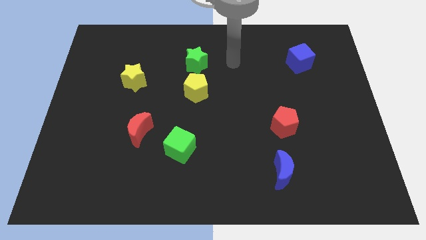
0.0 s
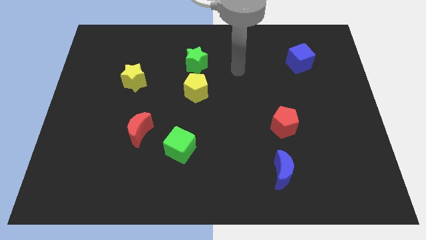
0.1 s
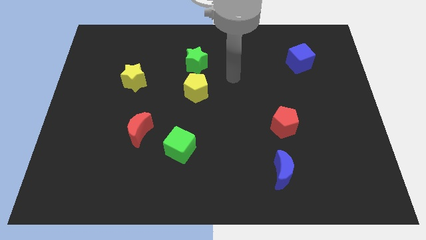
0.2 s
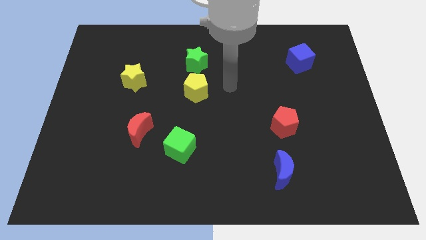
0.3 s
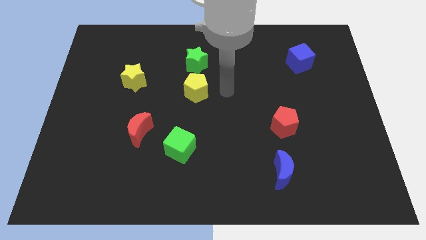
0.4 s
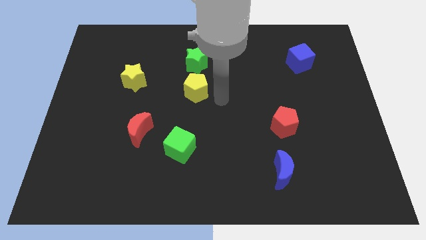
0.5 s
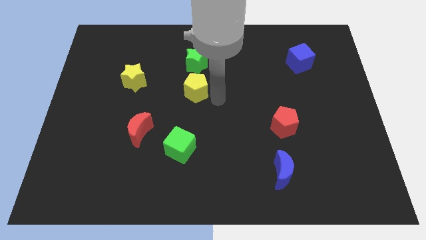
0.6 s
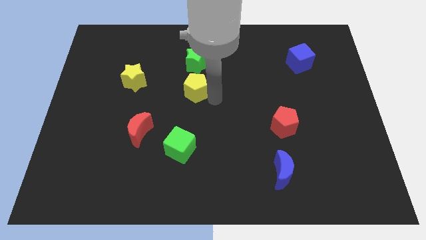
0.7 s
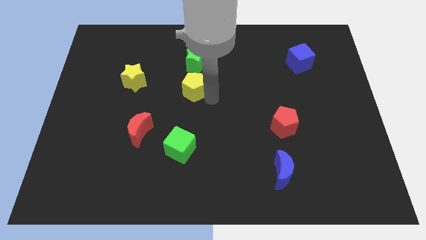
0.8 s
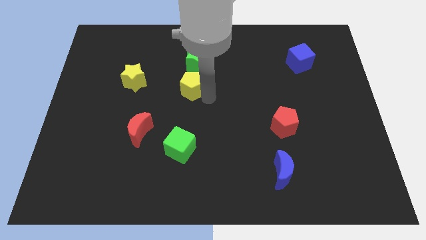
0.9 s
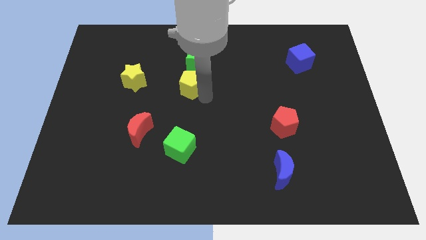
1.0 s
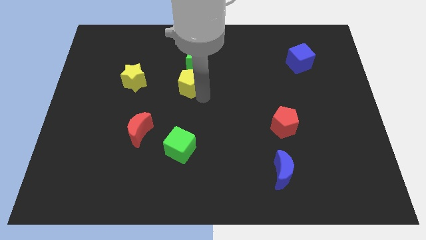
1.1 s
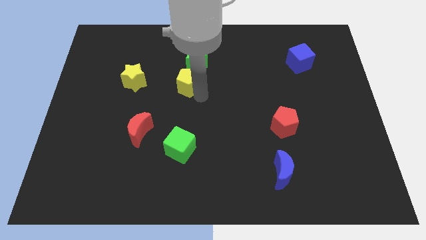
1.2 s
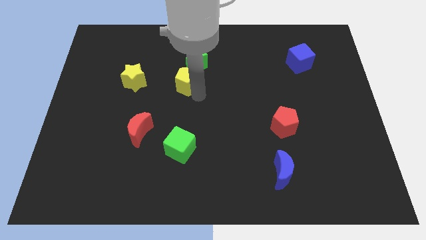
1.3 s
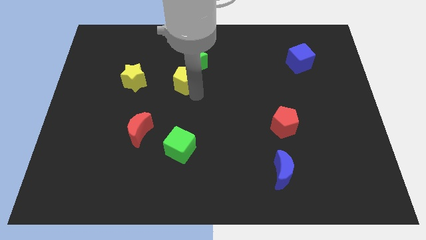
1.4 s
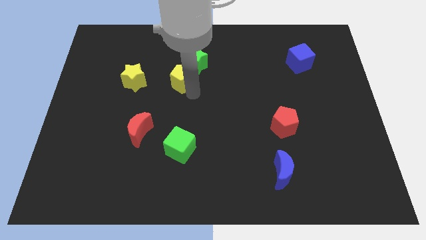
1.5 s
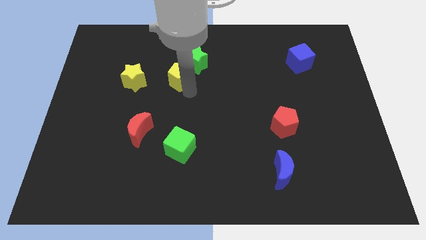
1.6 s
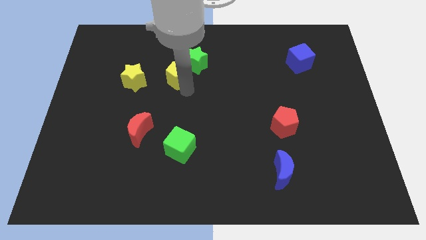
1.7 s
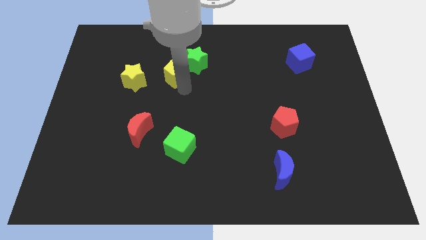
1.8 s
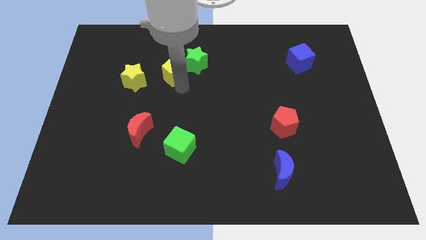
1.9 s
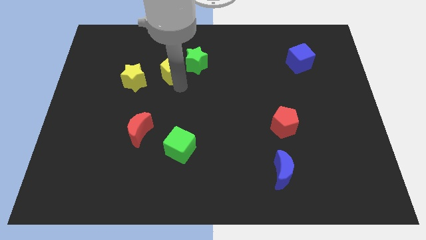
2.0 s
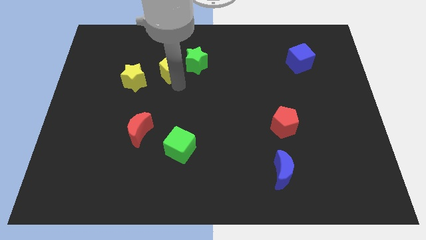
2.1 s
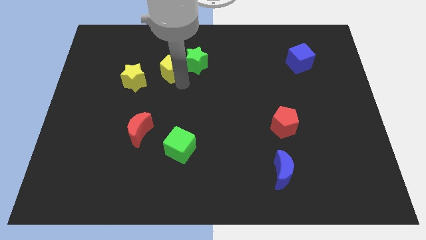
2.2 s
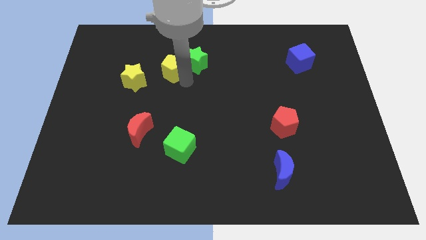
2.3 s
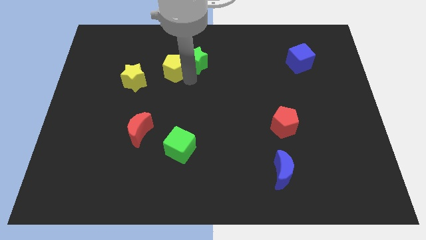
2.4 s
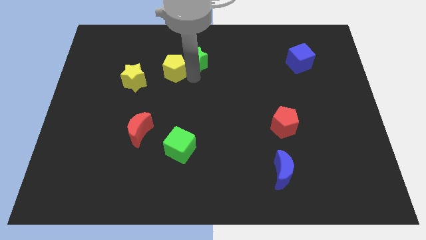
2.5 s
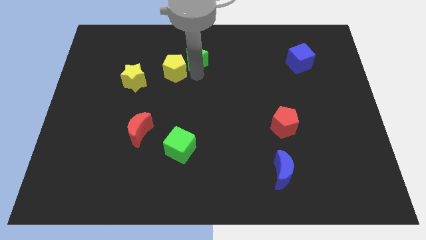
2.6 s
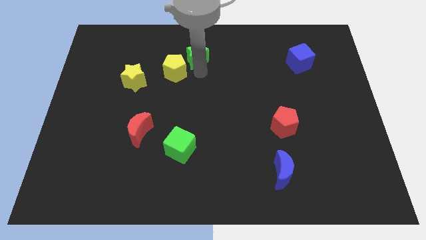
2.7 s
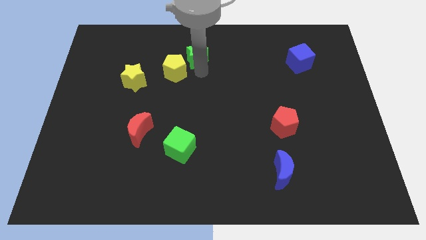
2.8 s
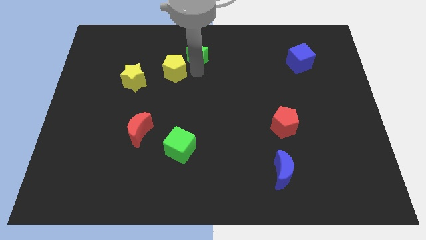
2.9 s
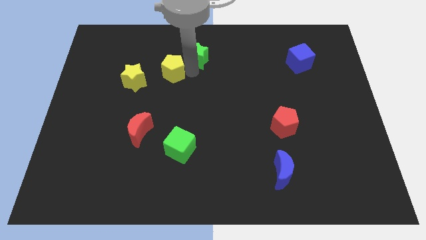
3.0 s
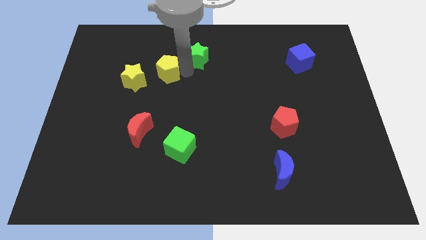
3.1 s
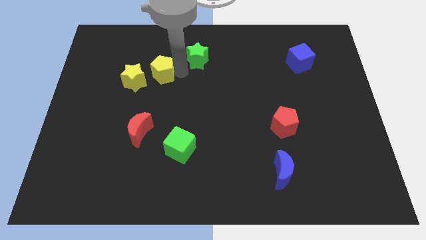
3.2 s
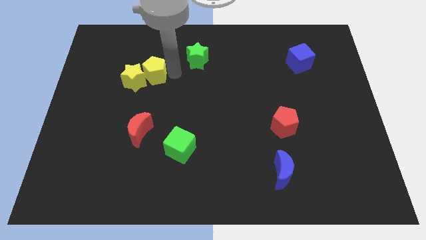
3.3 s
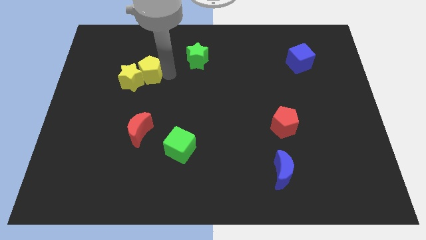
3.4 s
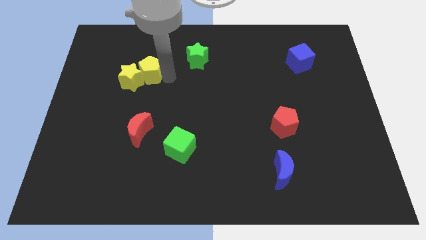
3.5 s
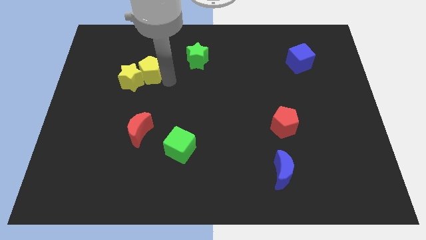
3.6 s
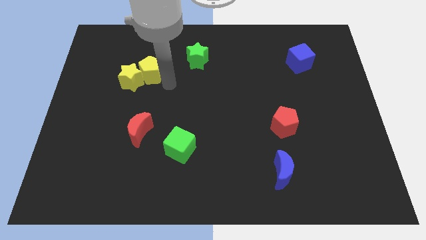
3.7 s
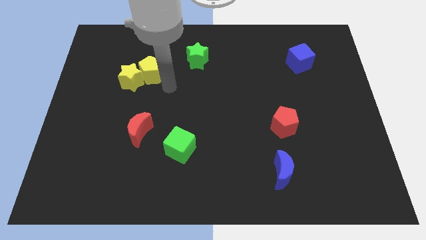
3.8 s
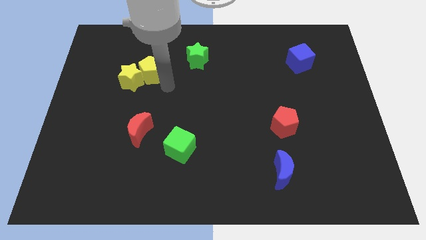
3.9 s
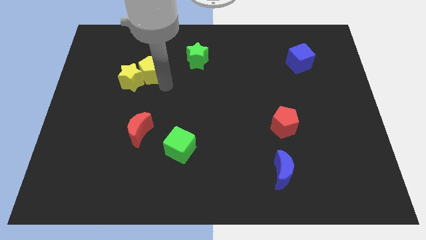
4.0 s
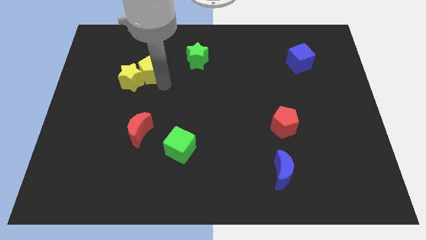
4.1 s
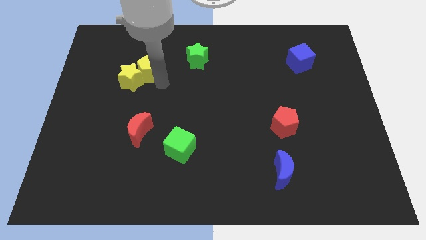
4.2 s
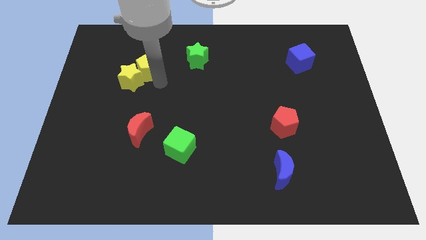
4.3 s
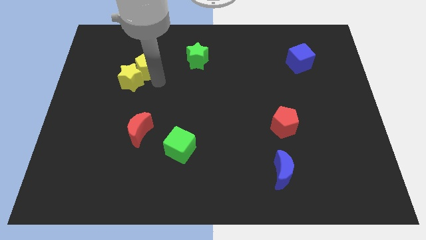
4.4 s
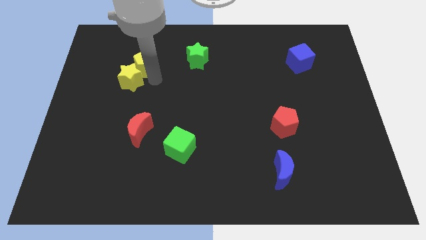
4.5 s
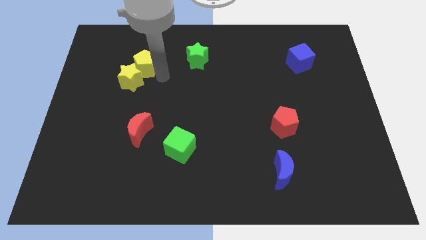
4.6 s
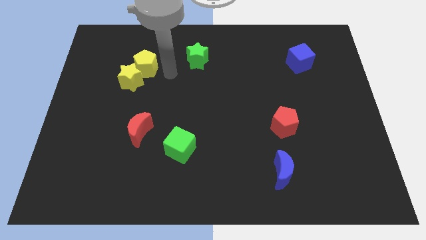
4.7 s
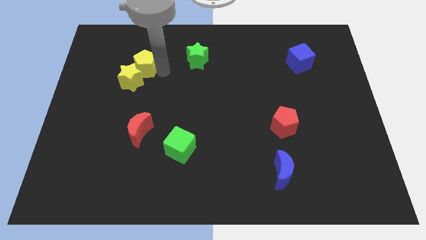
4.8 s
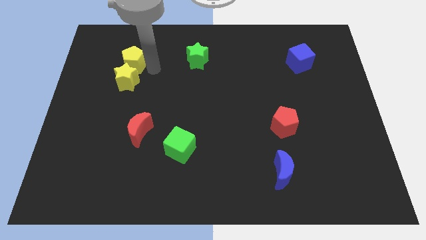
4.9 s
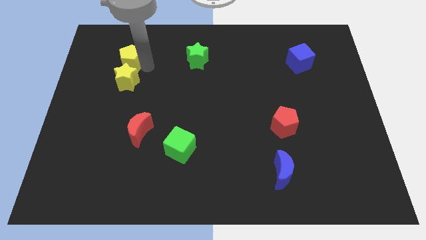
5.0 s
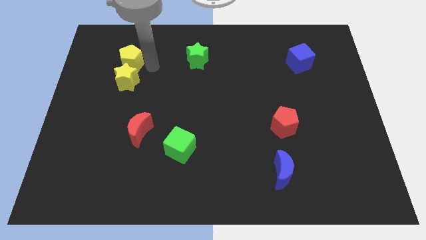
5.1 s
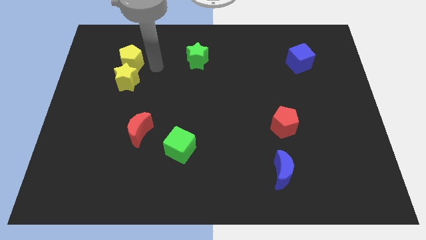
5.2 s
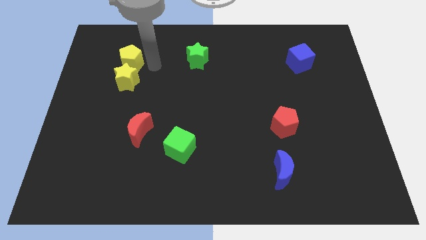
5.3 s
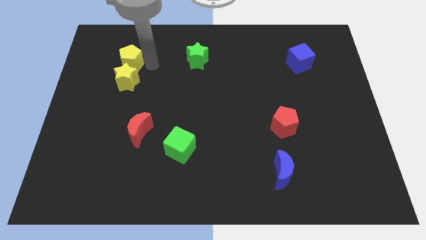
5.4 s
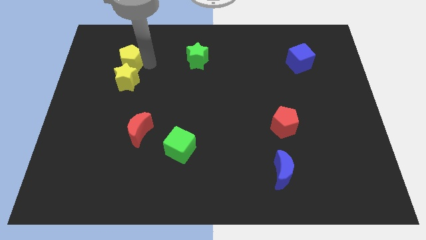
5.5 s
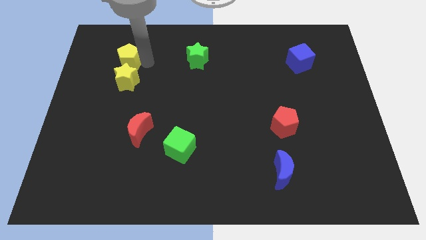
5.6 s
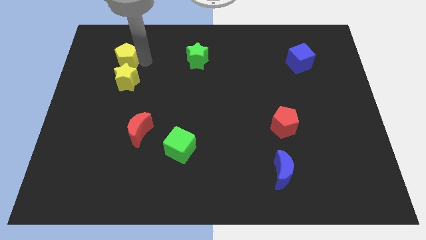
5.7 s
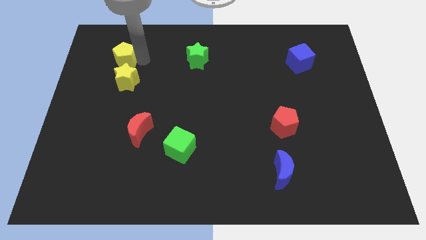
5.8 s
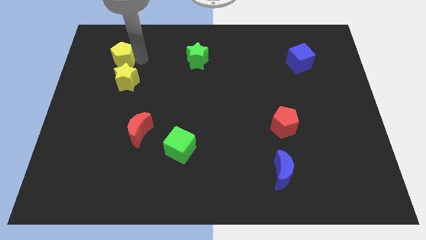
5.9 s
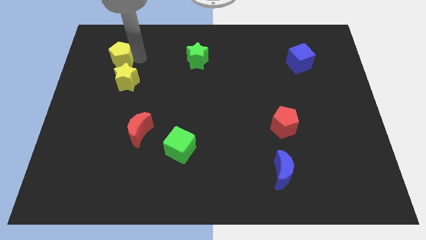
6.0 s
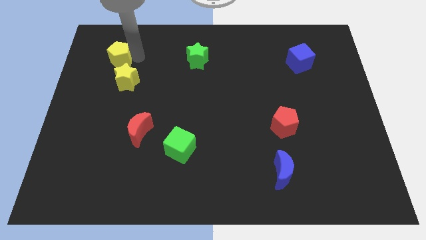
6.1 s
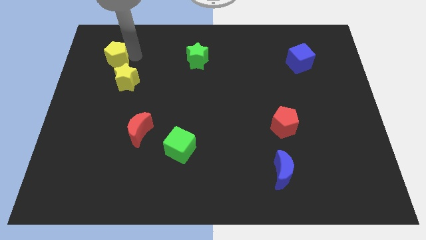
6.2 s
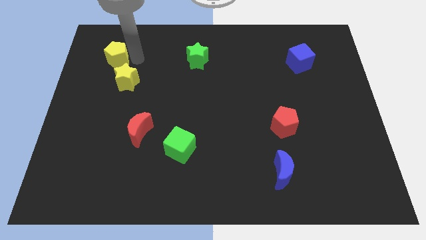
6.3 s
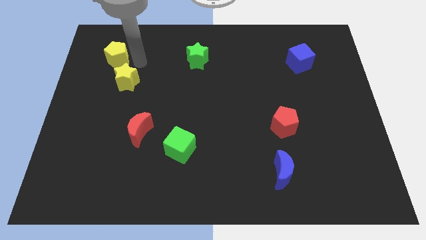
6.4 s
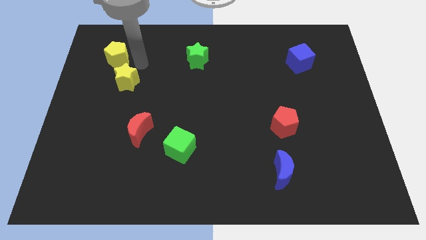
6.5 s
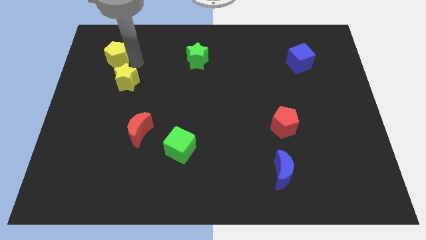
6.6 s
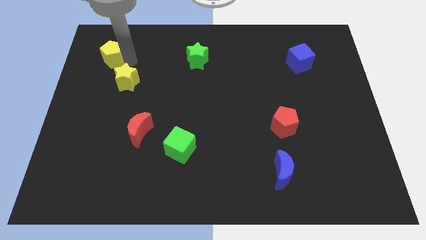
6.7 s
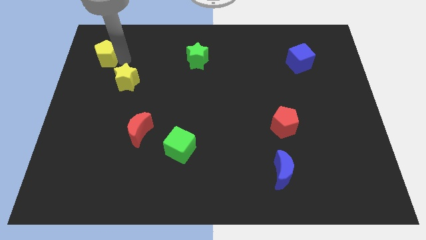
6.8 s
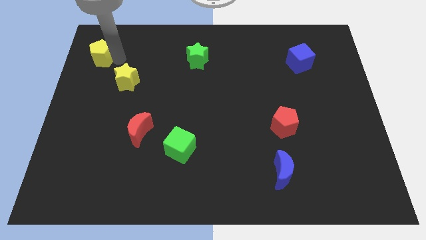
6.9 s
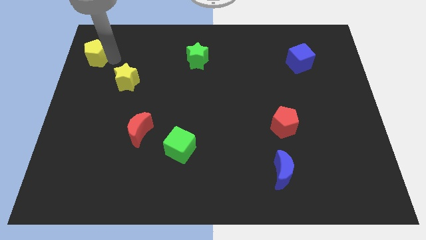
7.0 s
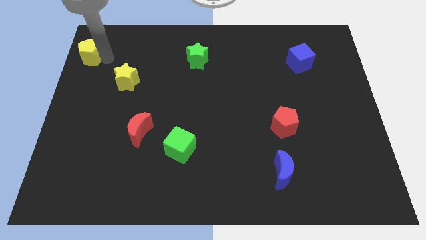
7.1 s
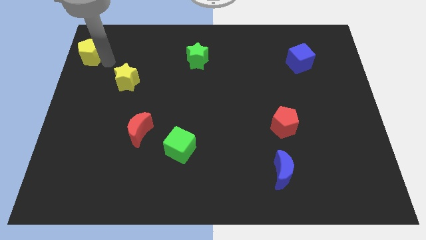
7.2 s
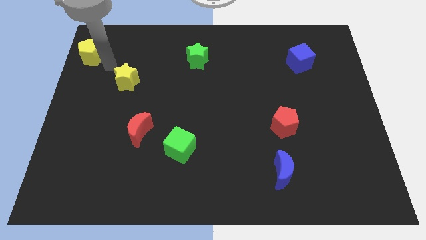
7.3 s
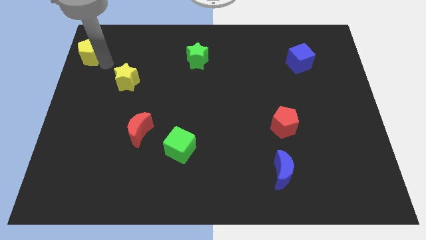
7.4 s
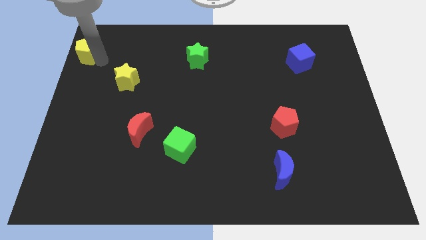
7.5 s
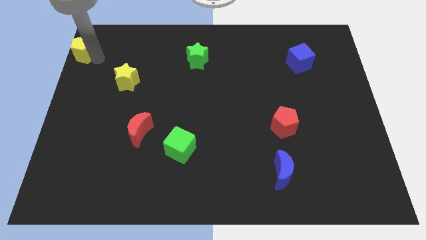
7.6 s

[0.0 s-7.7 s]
slide the yellow pentagon to the top left
